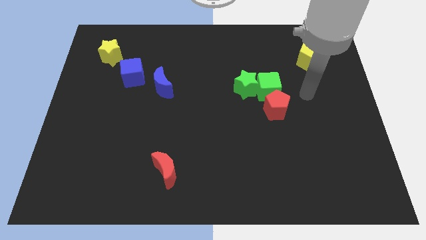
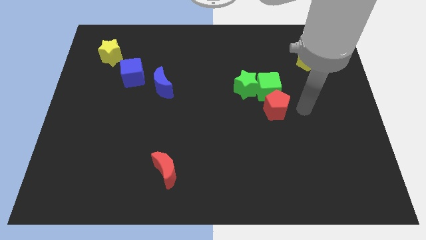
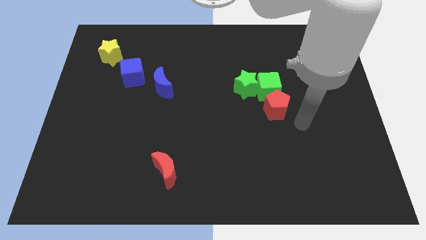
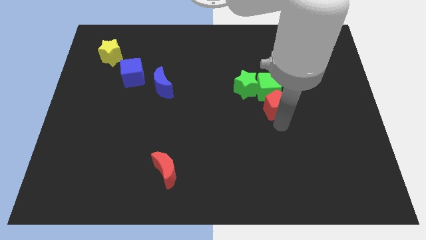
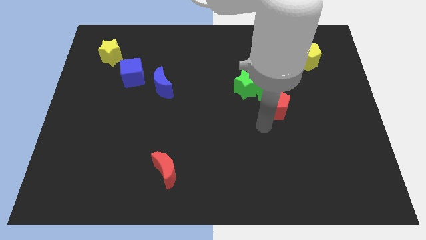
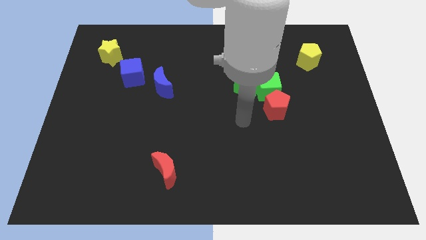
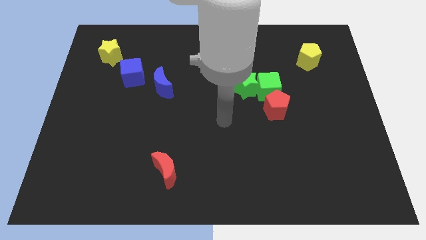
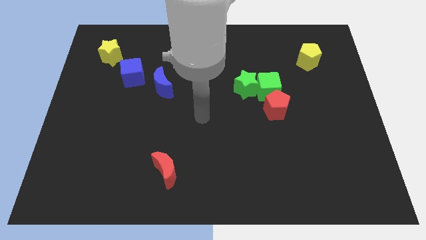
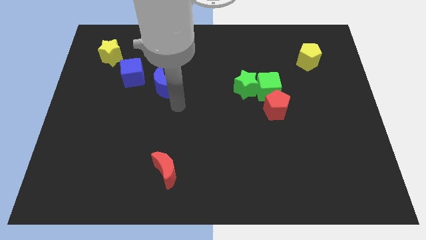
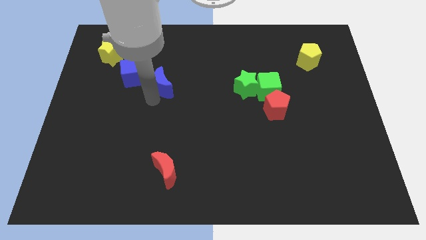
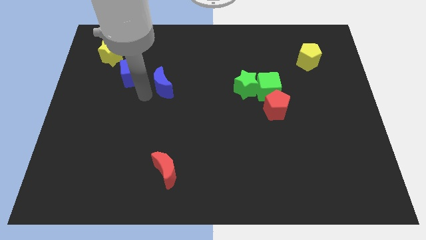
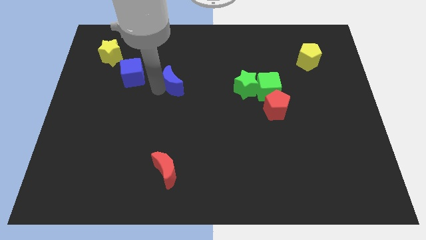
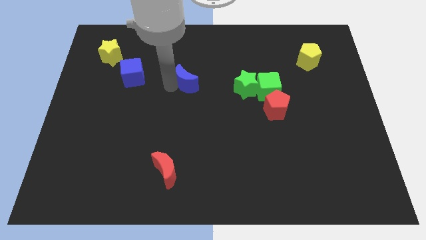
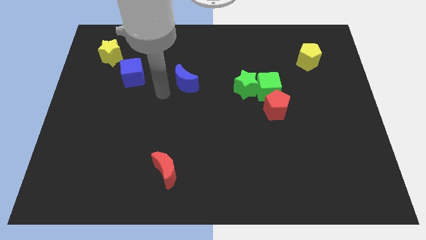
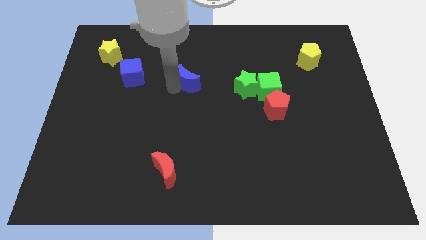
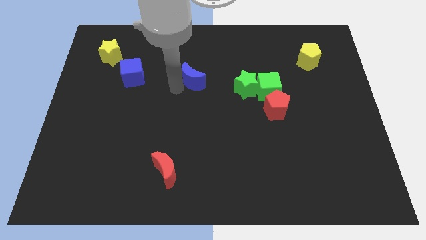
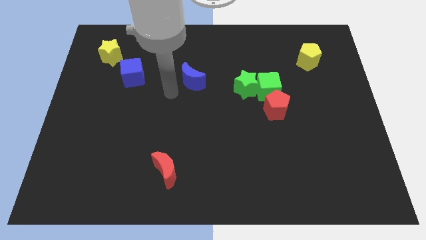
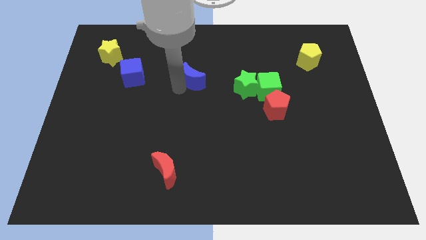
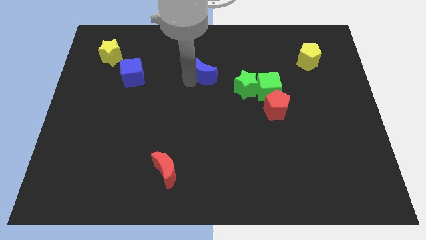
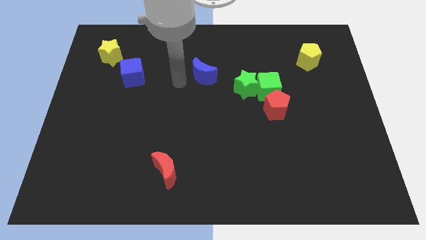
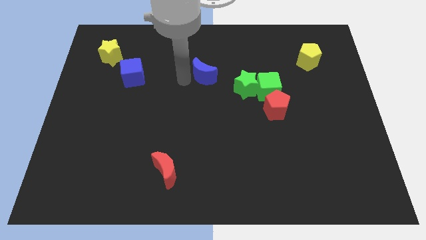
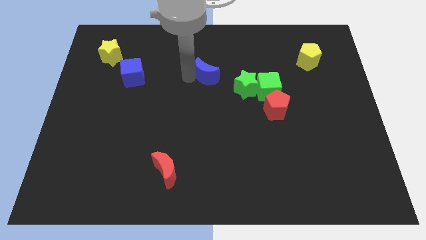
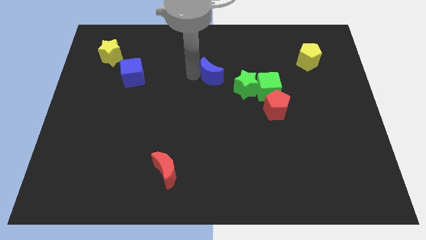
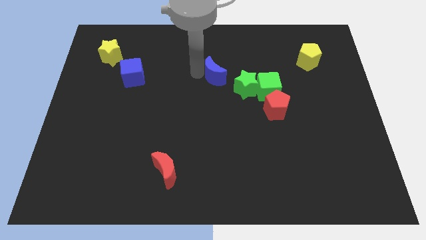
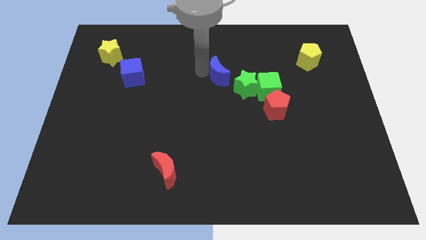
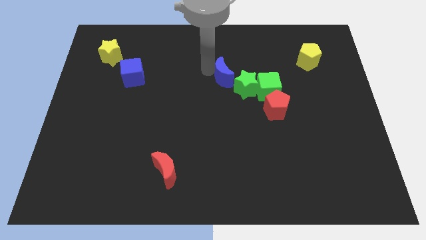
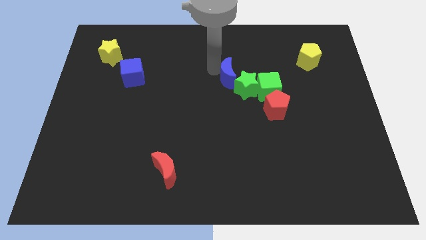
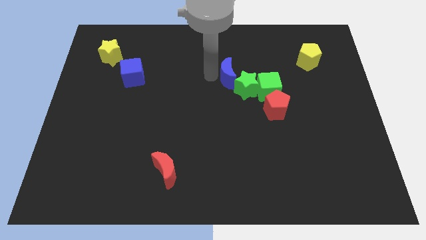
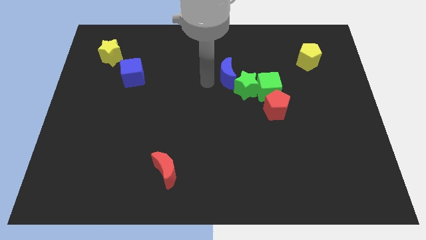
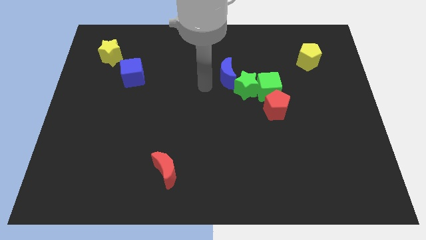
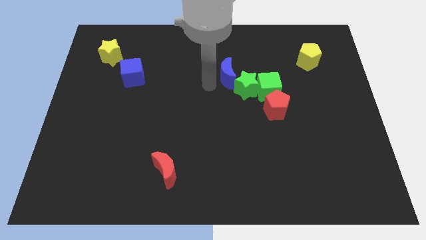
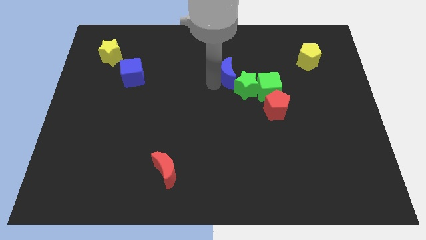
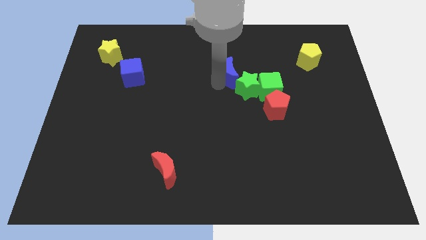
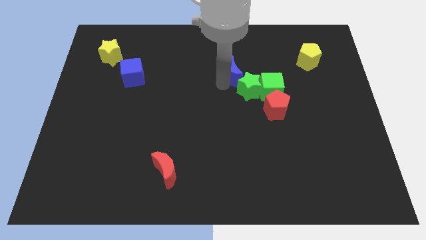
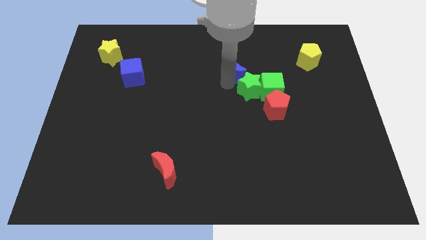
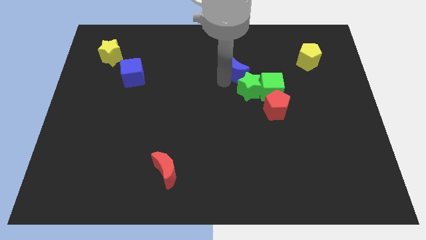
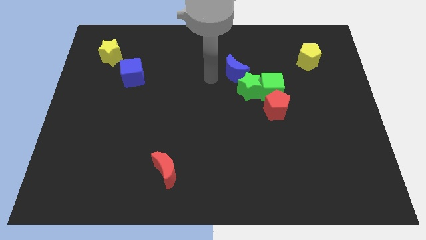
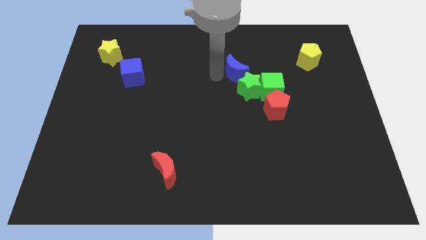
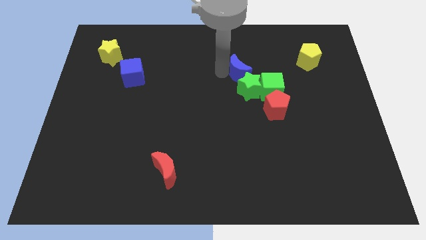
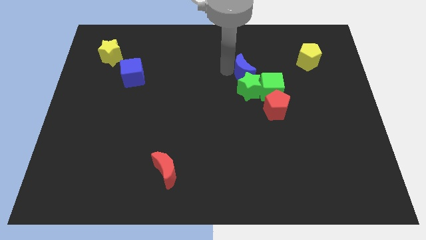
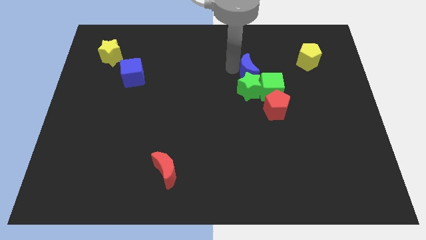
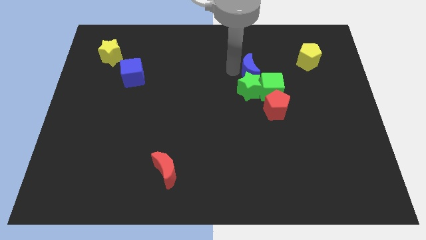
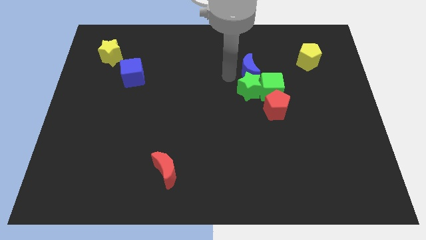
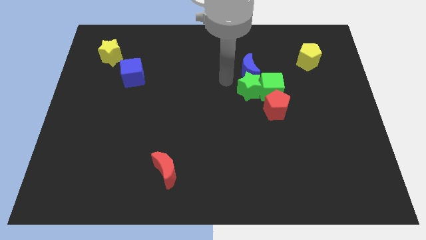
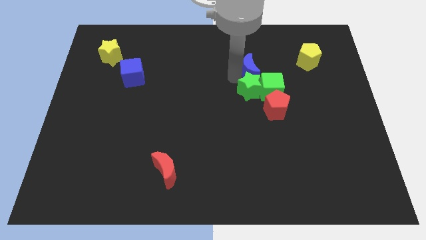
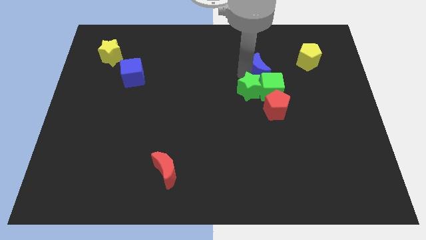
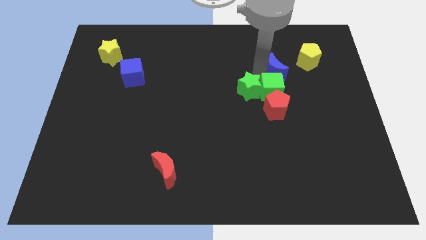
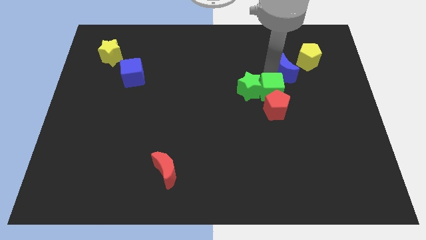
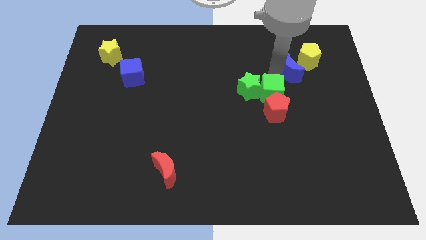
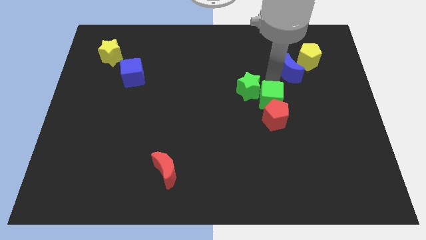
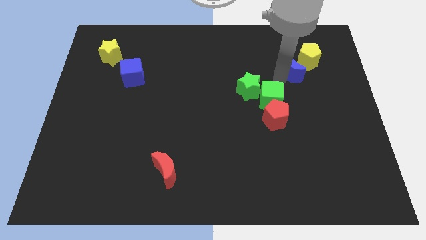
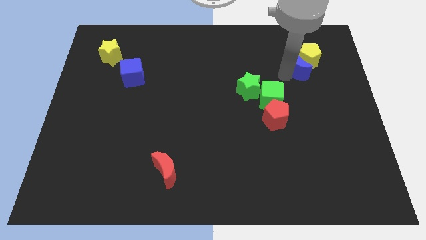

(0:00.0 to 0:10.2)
slide the blue moon next to the yellow pentagon

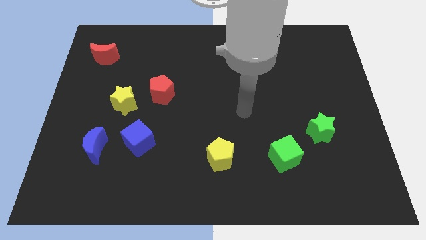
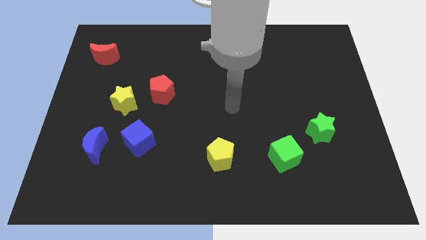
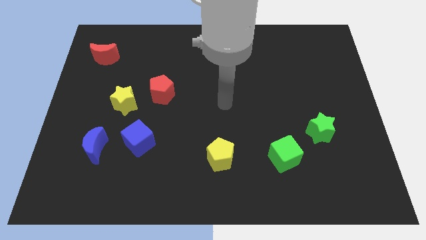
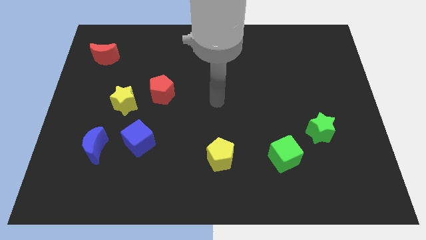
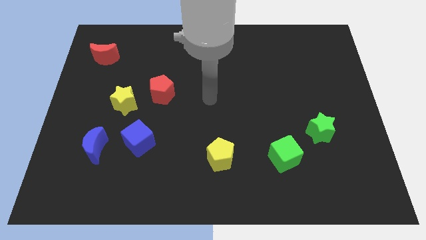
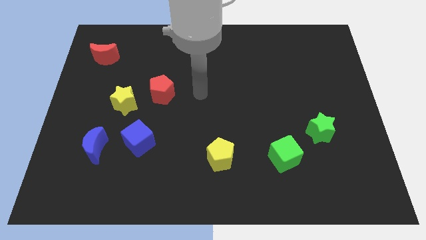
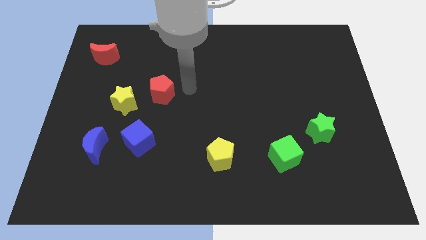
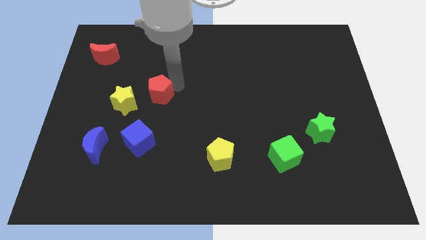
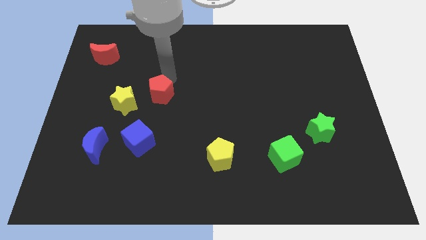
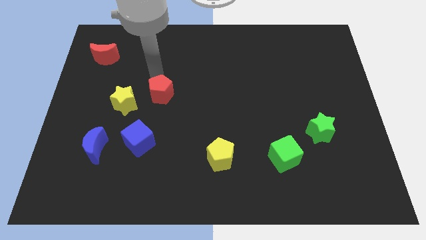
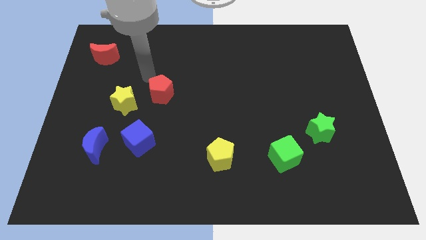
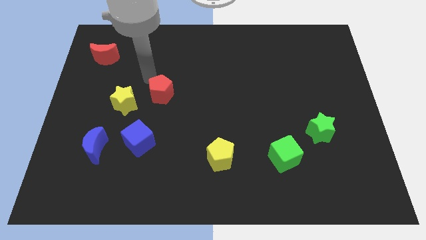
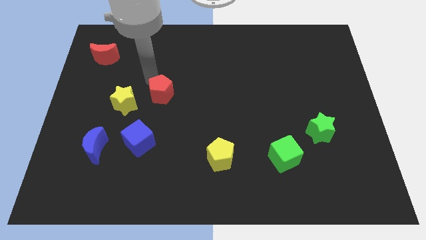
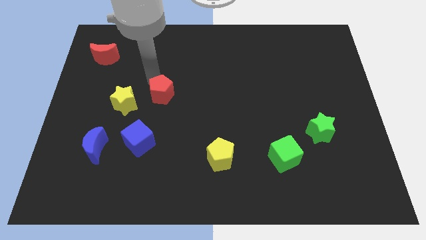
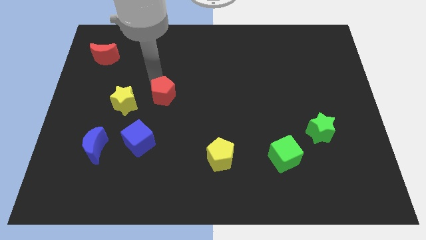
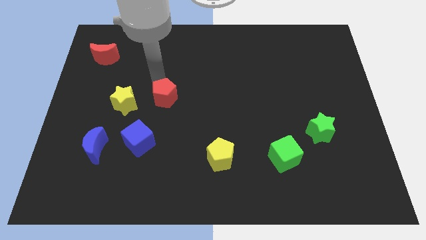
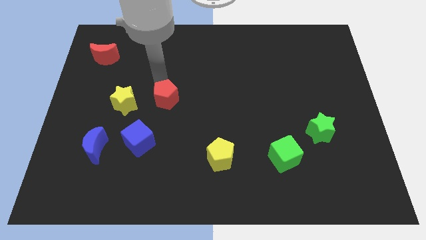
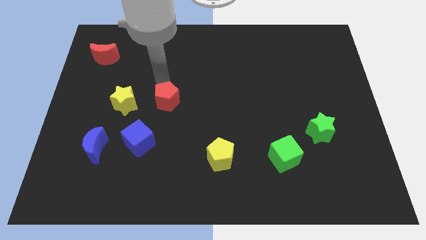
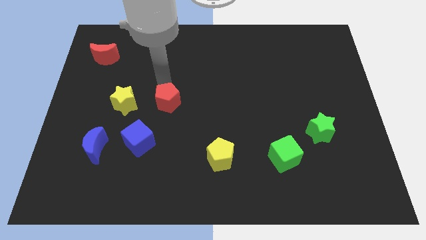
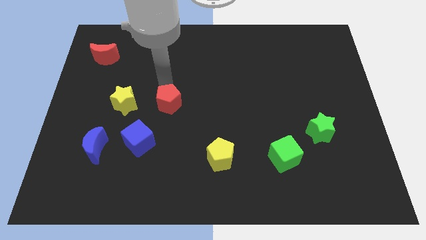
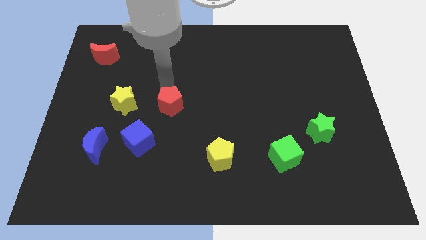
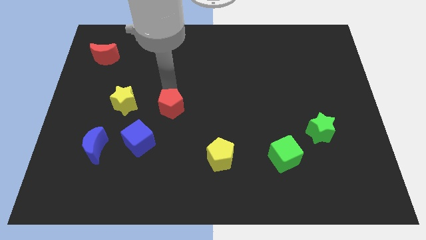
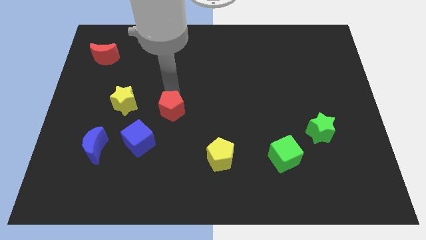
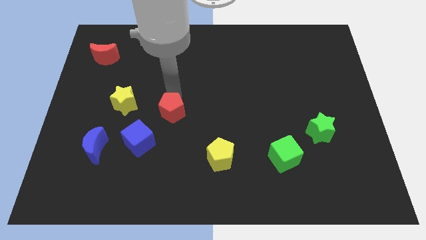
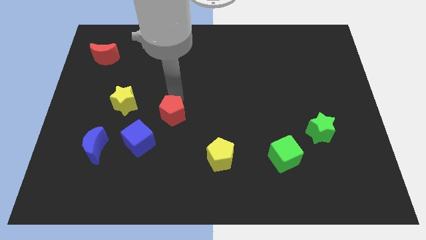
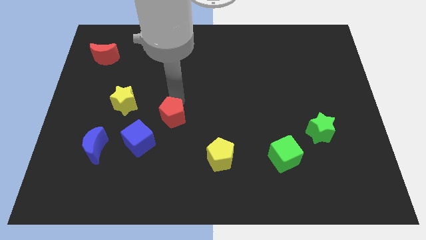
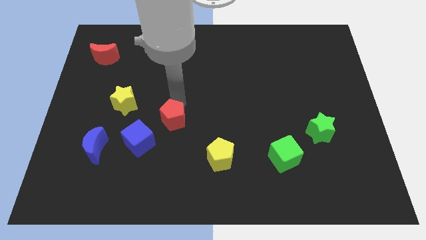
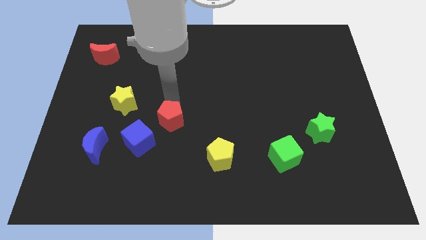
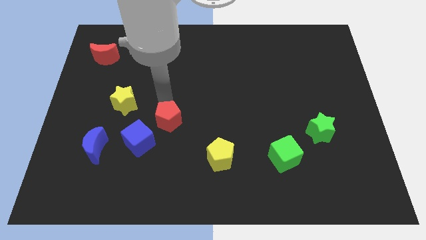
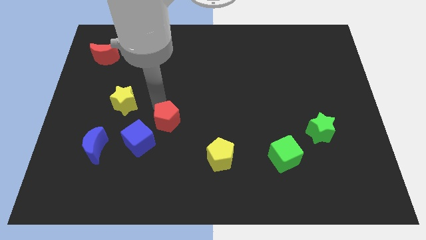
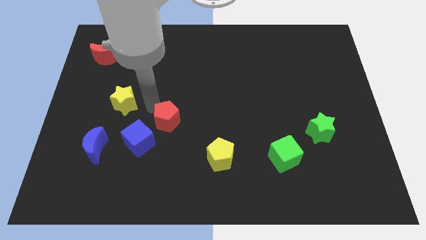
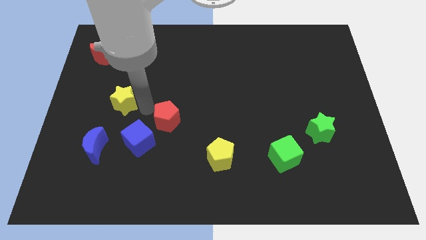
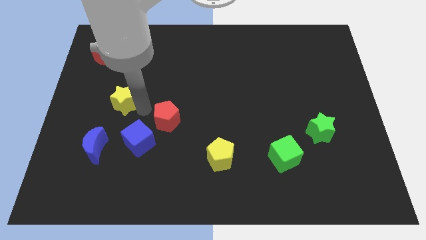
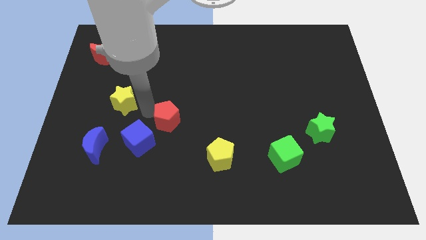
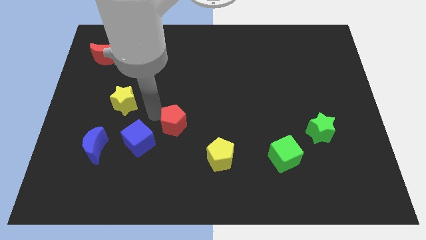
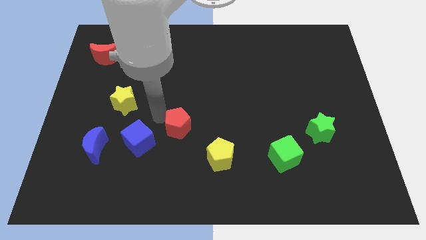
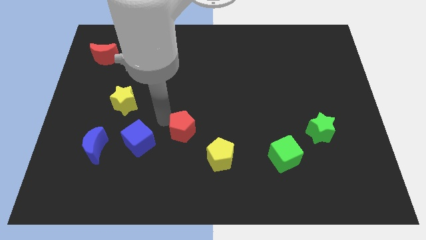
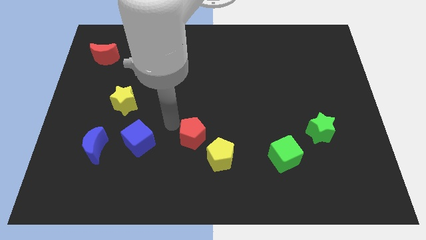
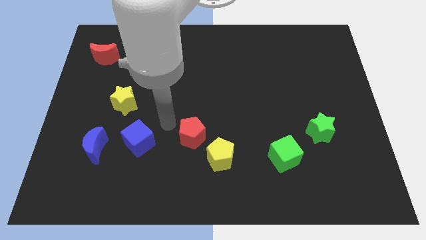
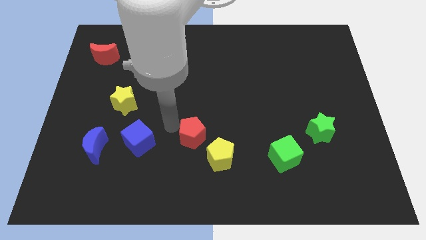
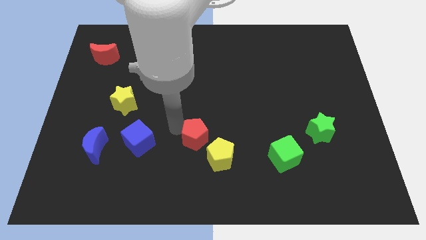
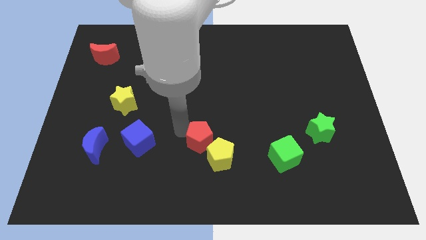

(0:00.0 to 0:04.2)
push the red pentagon next to the yellow pentagon
